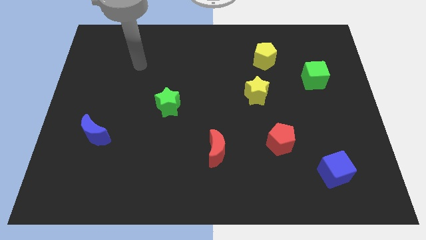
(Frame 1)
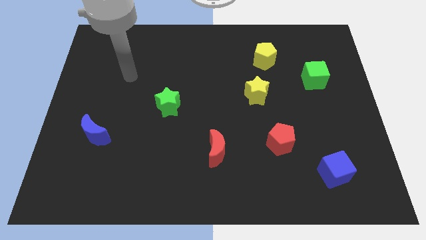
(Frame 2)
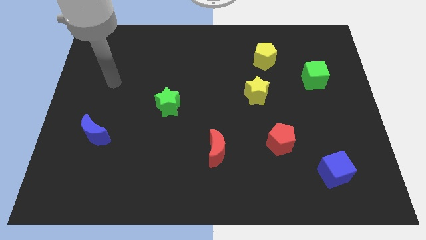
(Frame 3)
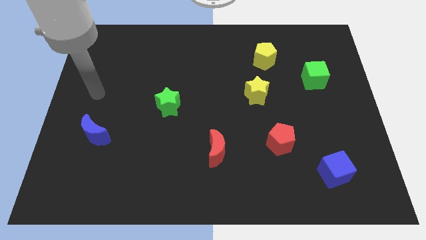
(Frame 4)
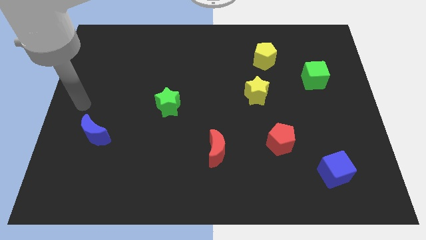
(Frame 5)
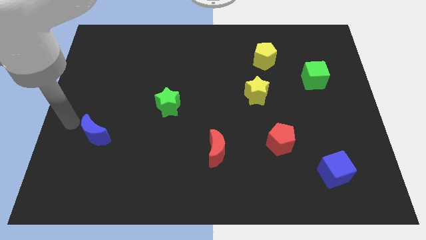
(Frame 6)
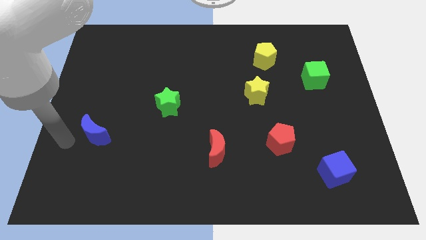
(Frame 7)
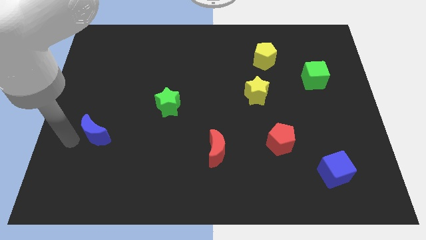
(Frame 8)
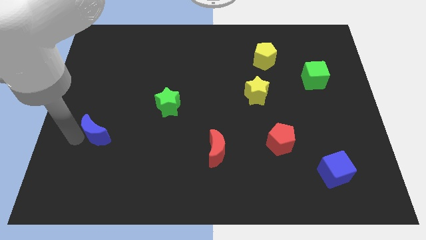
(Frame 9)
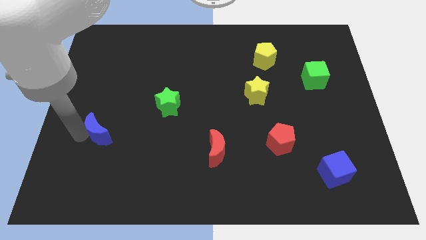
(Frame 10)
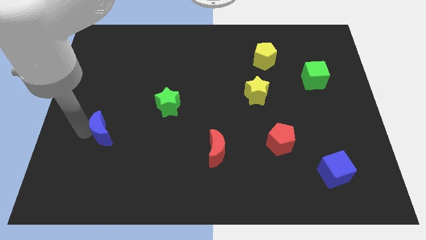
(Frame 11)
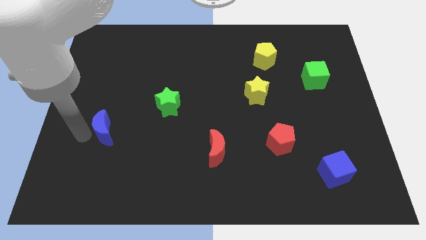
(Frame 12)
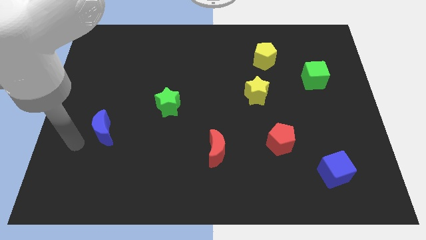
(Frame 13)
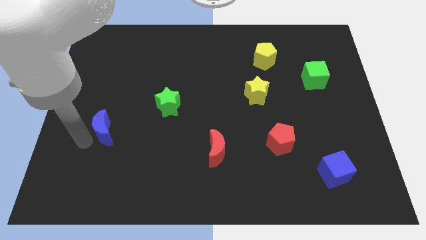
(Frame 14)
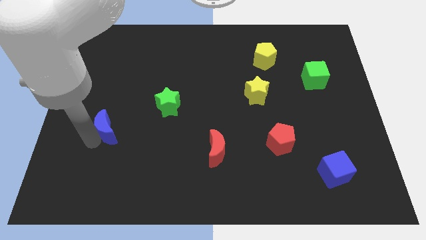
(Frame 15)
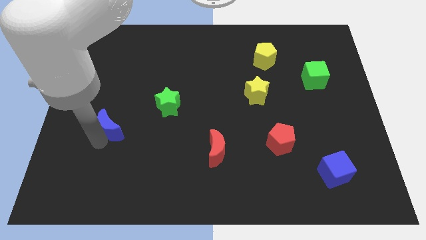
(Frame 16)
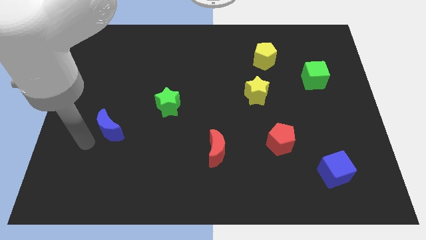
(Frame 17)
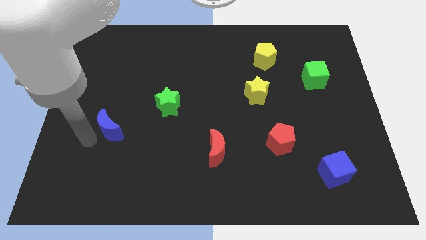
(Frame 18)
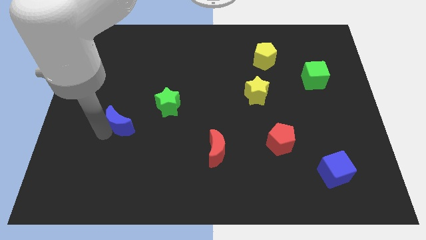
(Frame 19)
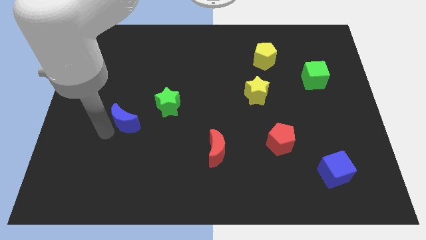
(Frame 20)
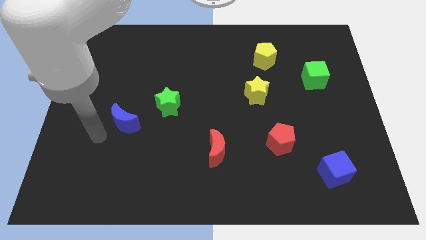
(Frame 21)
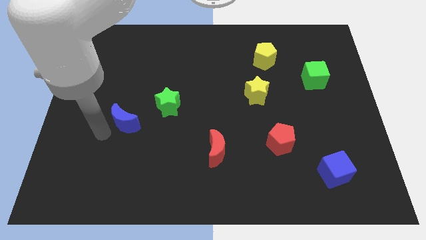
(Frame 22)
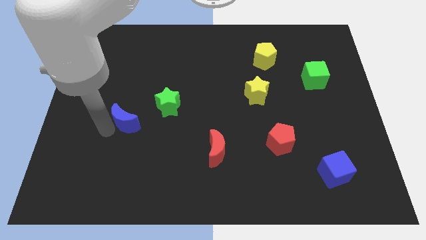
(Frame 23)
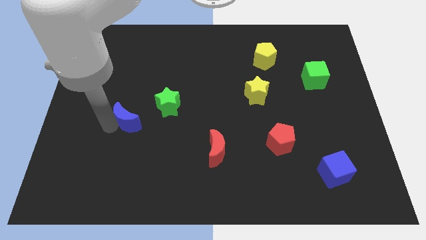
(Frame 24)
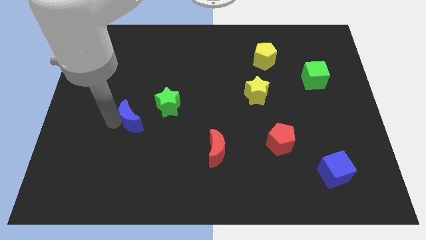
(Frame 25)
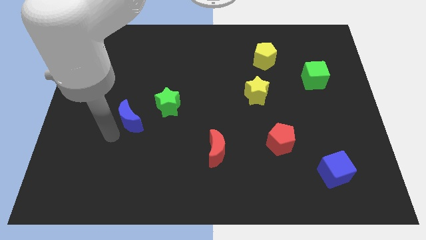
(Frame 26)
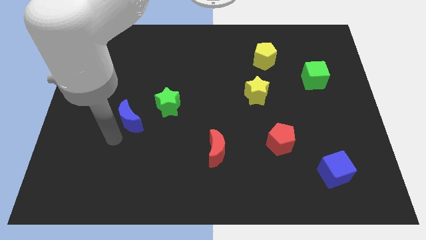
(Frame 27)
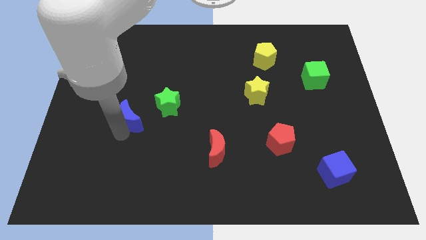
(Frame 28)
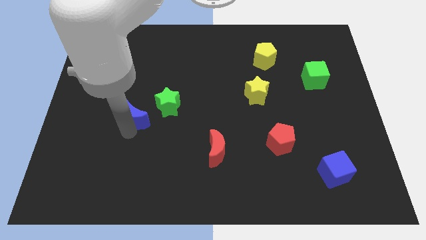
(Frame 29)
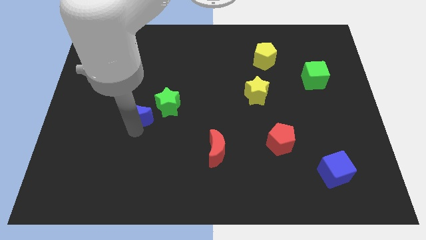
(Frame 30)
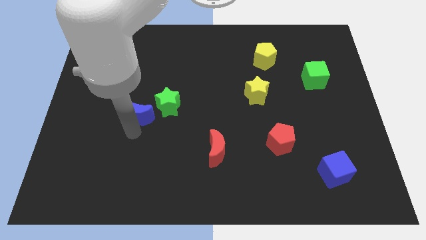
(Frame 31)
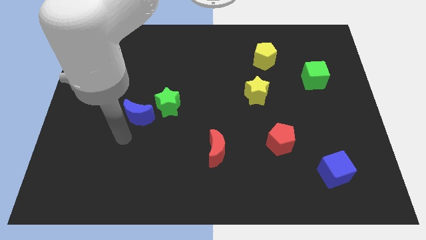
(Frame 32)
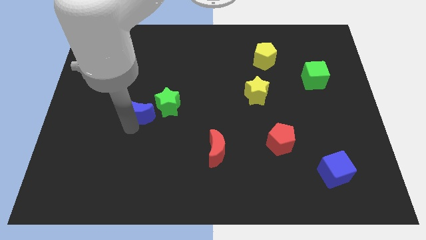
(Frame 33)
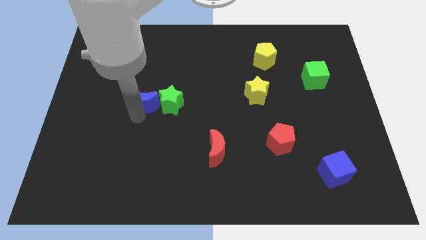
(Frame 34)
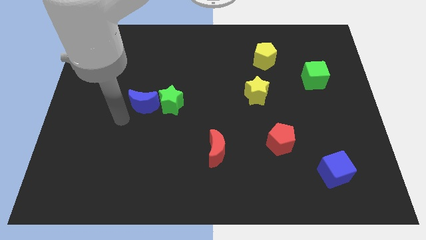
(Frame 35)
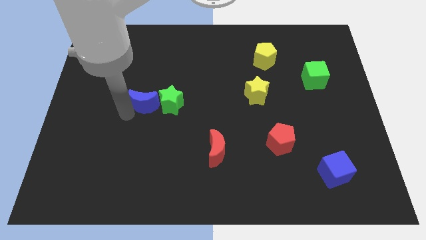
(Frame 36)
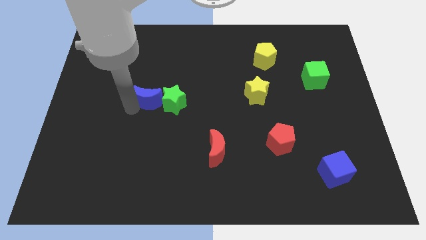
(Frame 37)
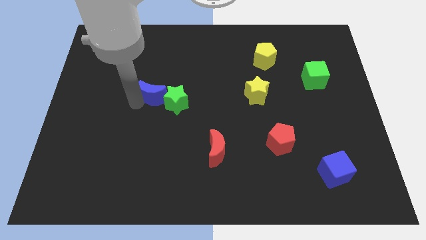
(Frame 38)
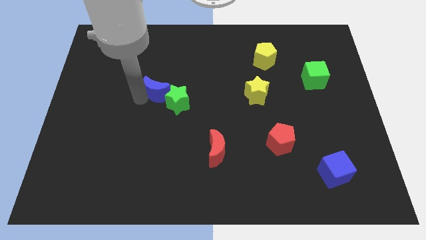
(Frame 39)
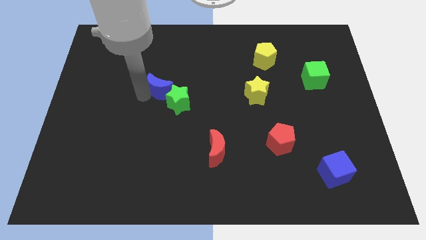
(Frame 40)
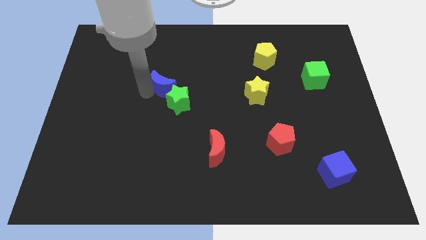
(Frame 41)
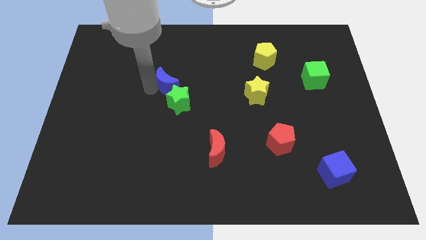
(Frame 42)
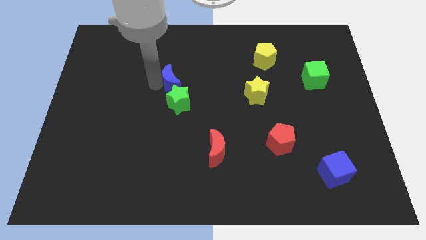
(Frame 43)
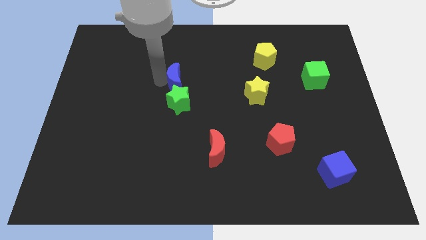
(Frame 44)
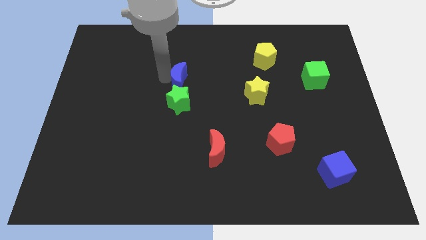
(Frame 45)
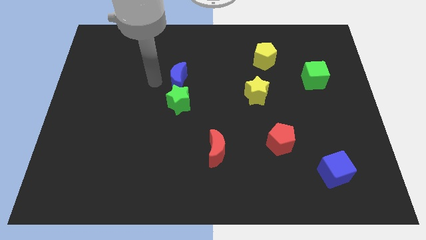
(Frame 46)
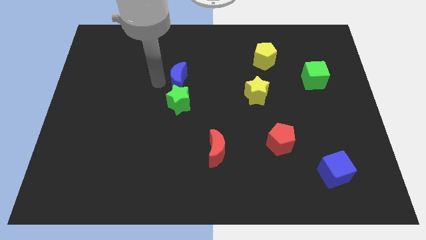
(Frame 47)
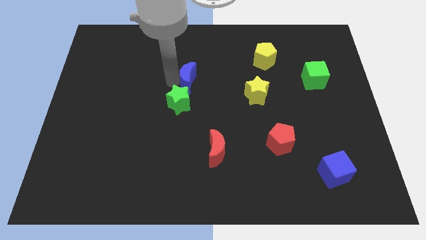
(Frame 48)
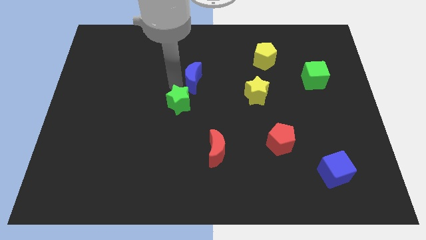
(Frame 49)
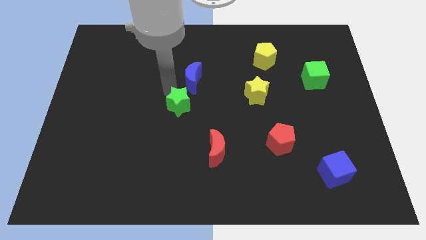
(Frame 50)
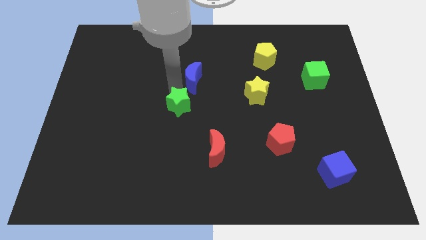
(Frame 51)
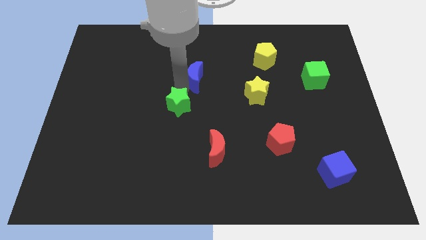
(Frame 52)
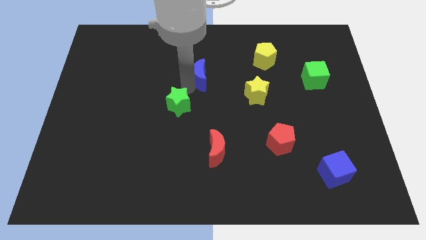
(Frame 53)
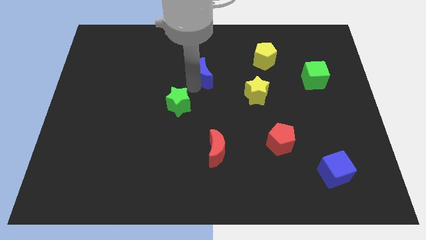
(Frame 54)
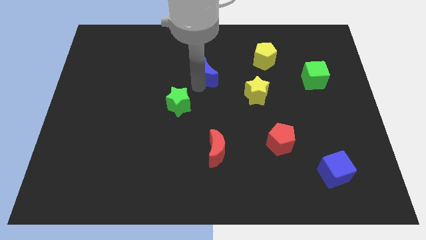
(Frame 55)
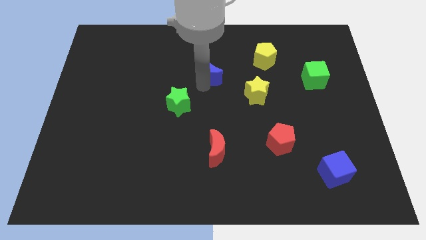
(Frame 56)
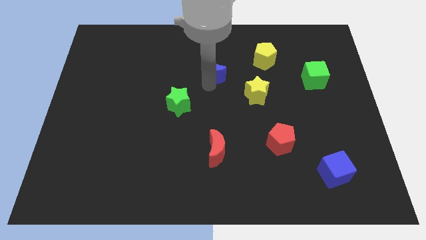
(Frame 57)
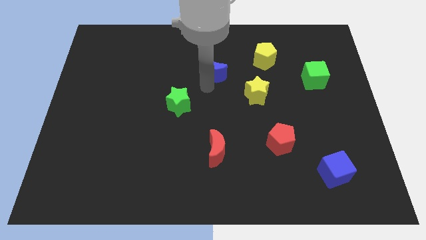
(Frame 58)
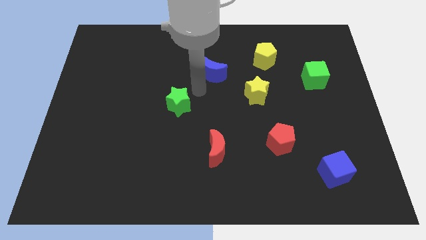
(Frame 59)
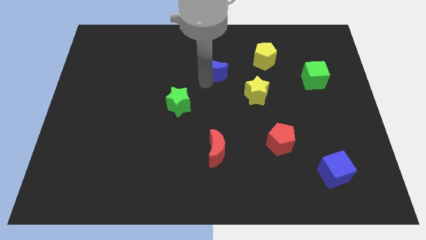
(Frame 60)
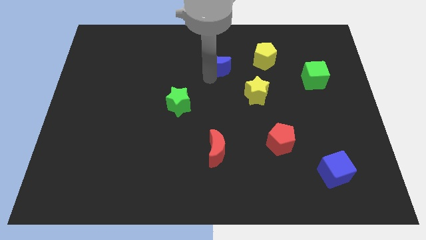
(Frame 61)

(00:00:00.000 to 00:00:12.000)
move the blue moon to the left of the yellow pentagon

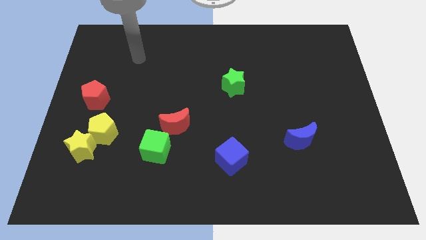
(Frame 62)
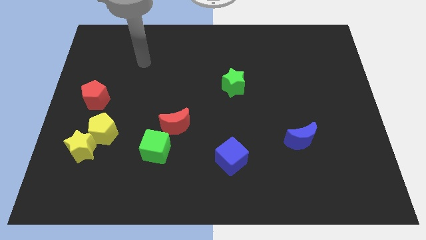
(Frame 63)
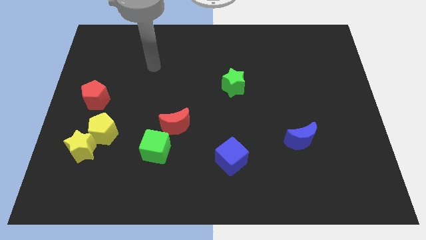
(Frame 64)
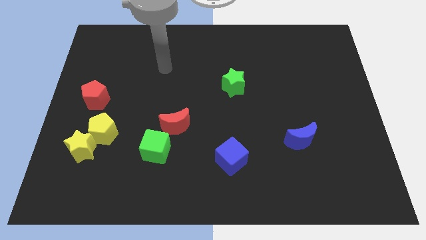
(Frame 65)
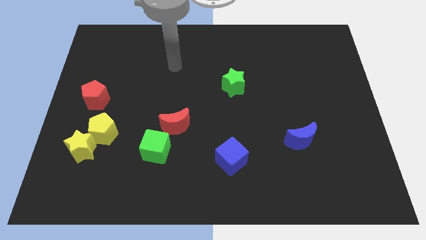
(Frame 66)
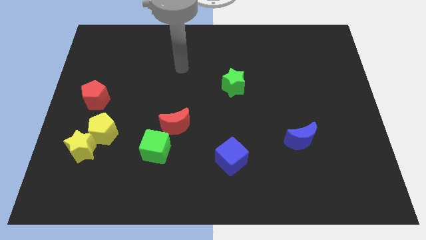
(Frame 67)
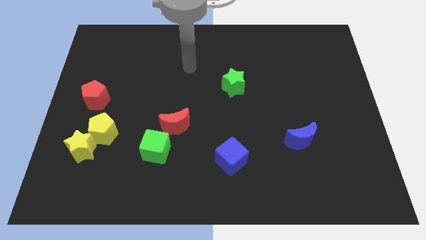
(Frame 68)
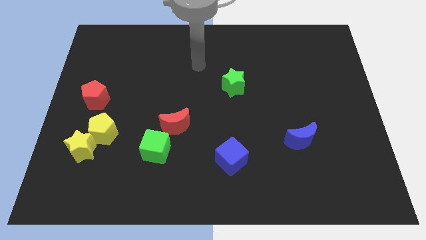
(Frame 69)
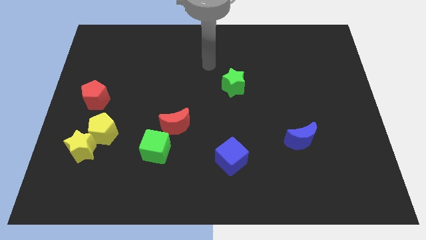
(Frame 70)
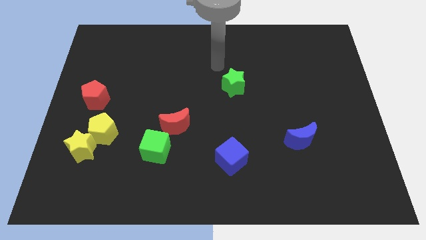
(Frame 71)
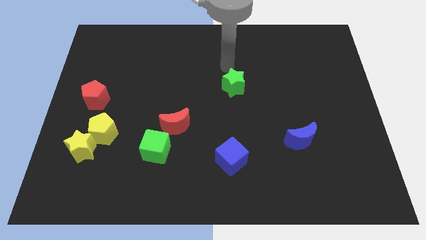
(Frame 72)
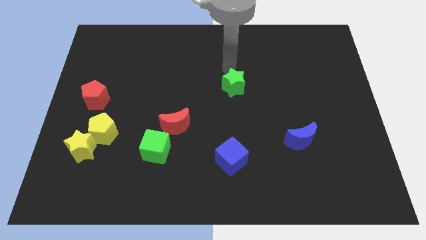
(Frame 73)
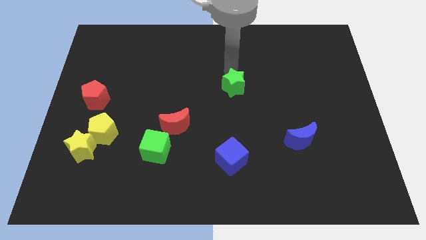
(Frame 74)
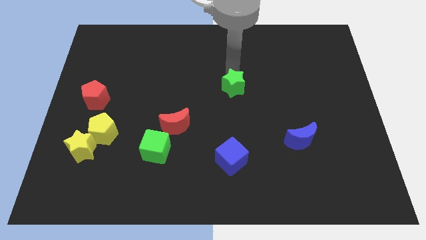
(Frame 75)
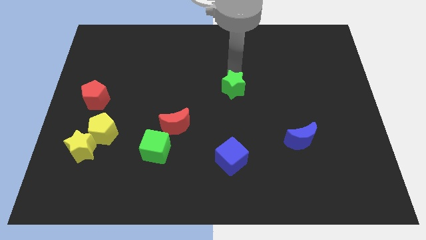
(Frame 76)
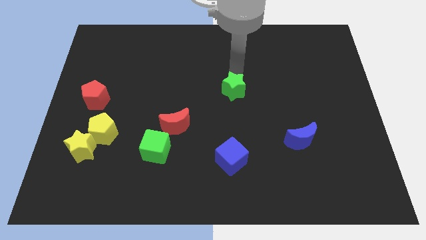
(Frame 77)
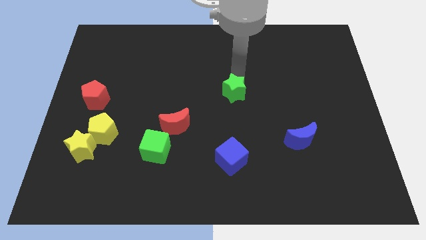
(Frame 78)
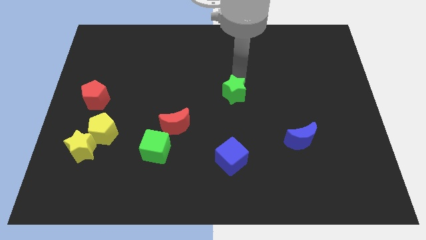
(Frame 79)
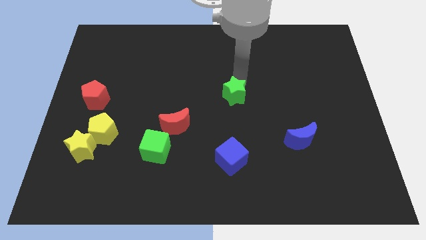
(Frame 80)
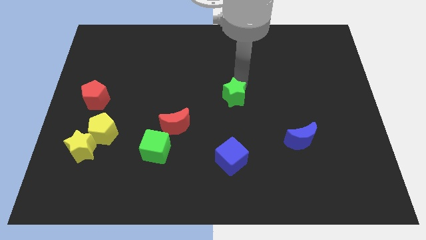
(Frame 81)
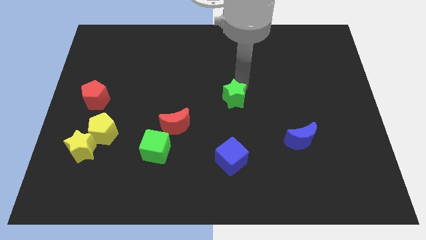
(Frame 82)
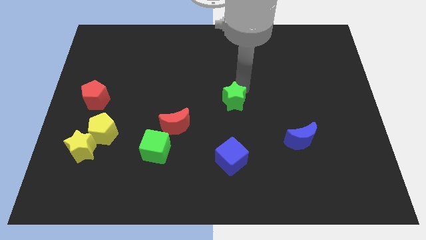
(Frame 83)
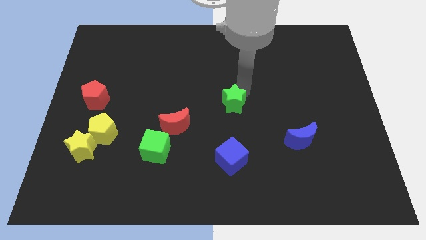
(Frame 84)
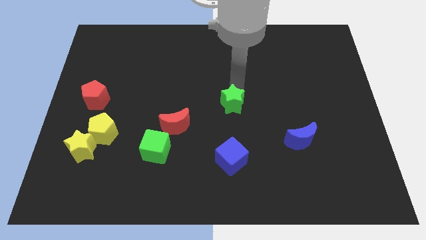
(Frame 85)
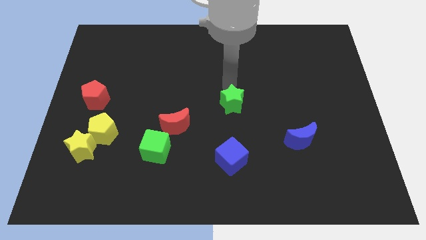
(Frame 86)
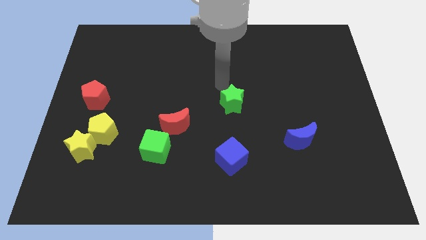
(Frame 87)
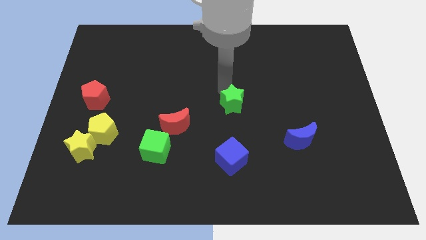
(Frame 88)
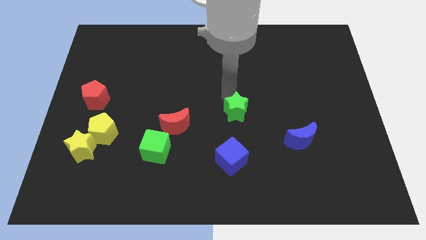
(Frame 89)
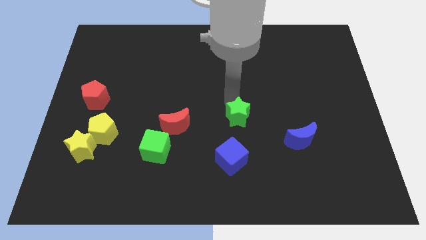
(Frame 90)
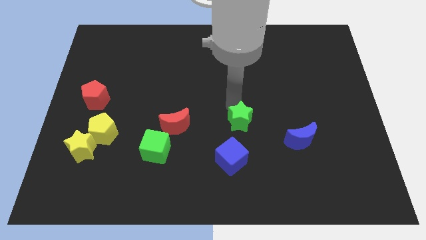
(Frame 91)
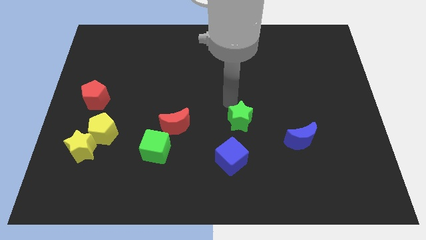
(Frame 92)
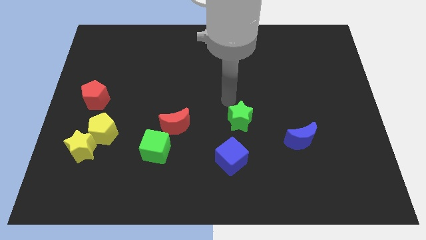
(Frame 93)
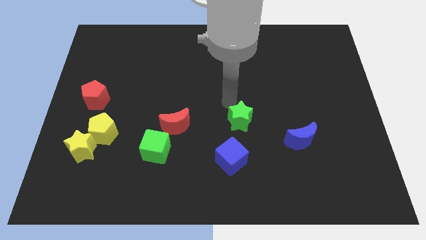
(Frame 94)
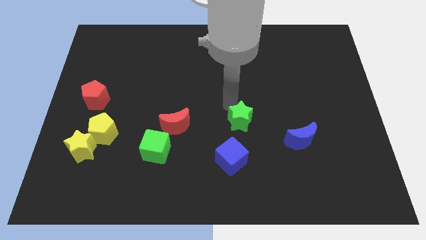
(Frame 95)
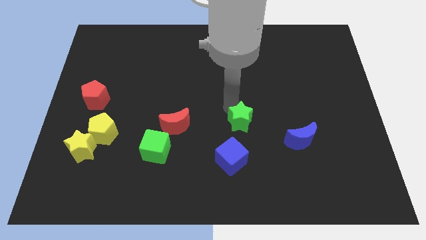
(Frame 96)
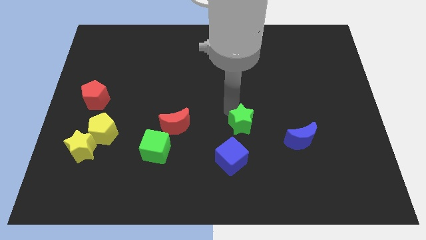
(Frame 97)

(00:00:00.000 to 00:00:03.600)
move the green star to the left side of the blue moon
